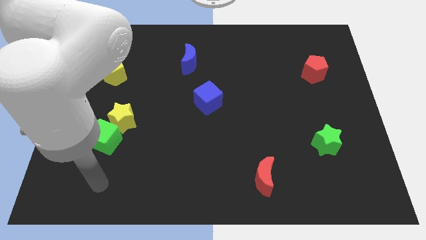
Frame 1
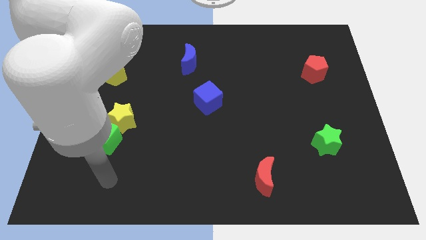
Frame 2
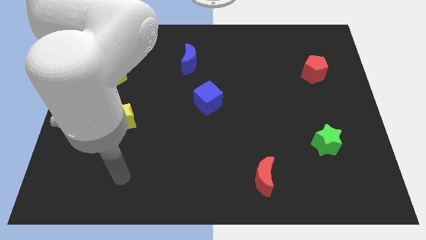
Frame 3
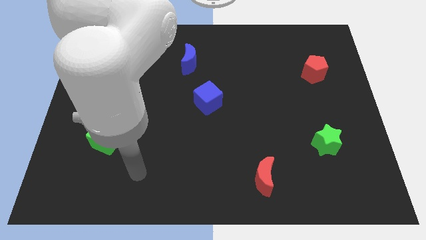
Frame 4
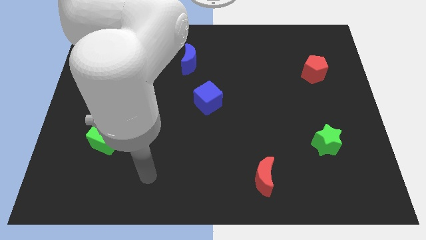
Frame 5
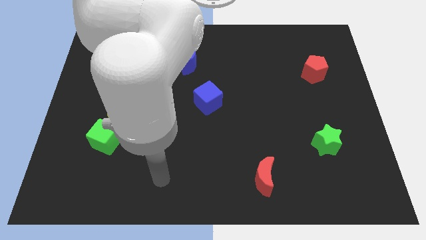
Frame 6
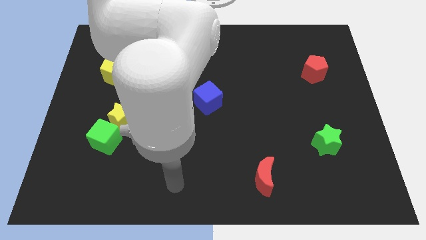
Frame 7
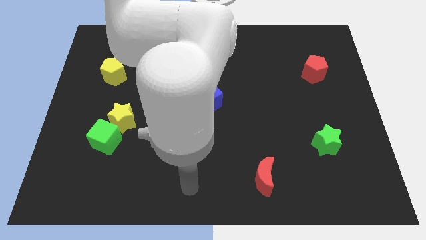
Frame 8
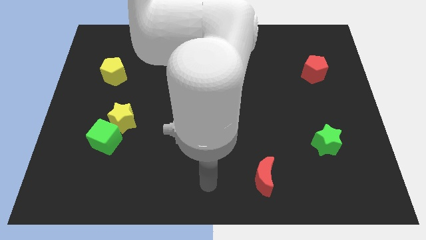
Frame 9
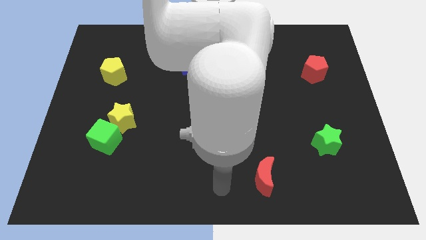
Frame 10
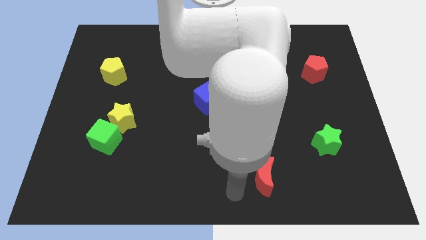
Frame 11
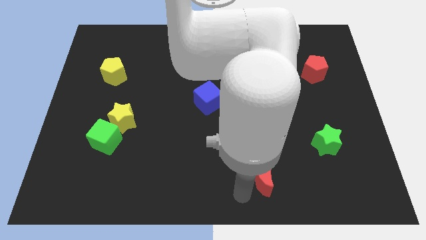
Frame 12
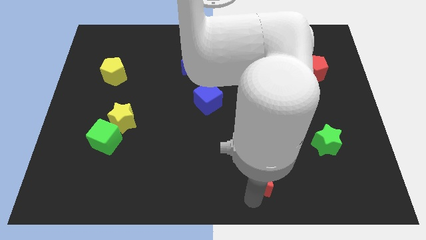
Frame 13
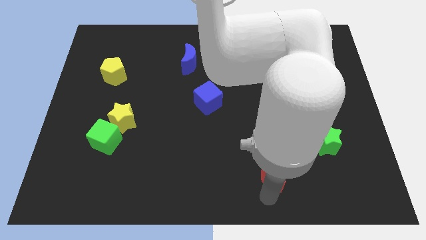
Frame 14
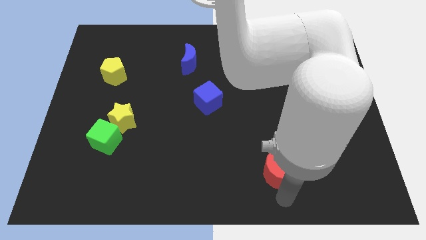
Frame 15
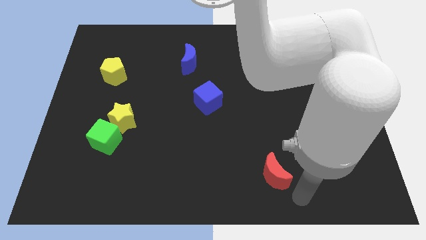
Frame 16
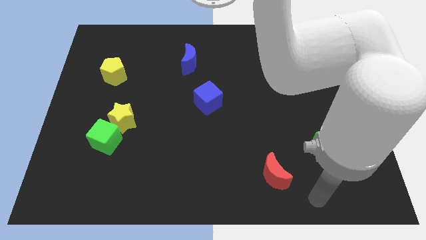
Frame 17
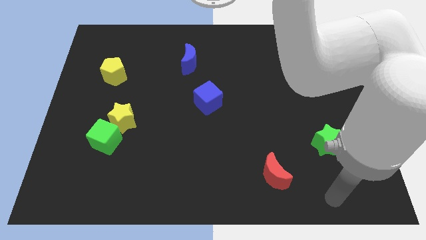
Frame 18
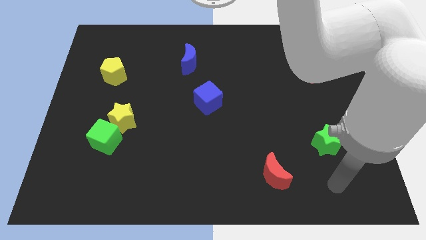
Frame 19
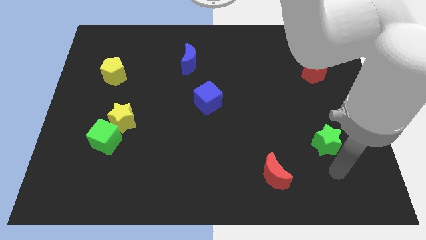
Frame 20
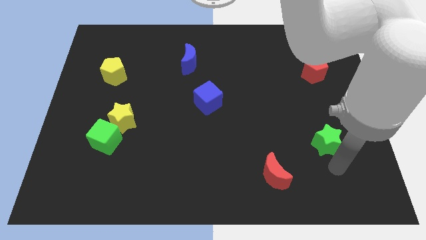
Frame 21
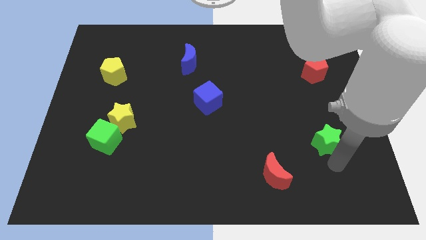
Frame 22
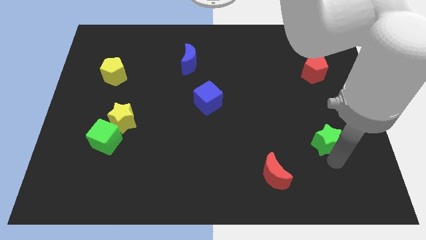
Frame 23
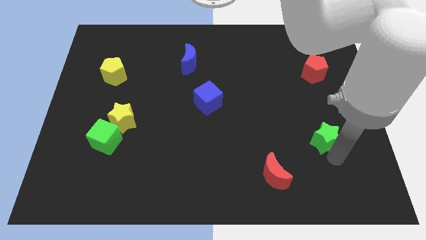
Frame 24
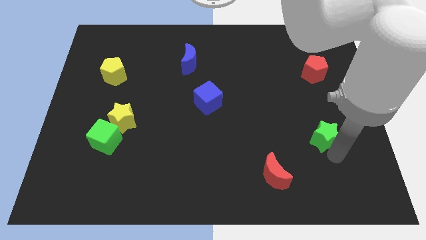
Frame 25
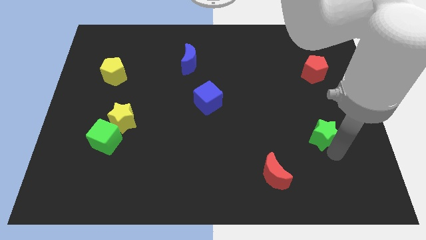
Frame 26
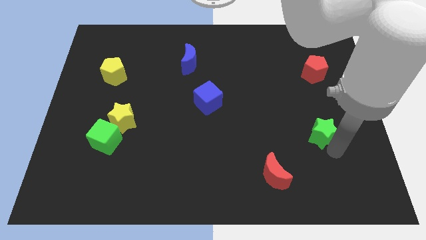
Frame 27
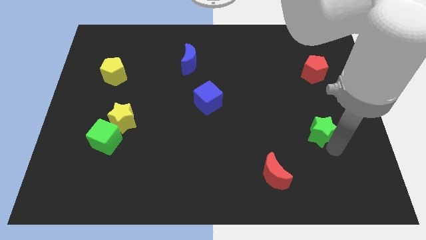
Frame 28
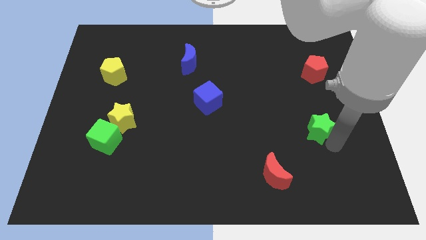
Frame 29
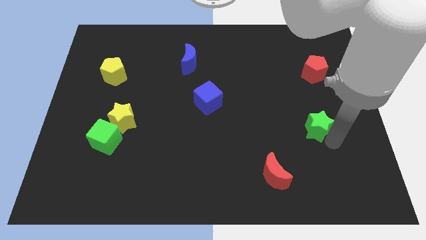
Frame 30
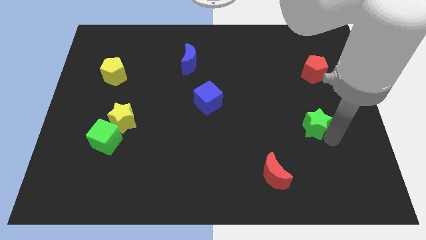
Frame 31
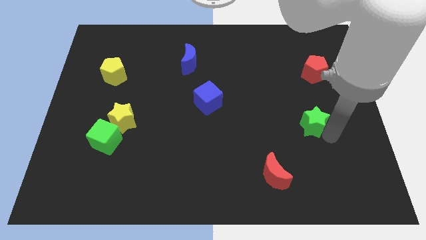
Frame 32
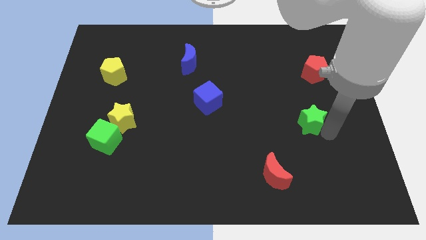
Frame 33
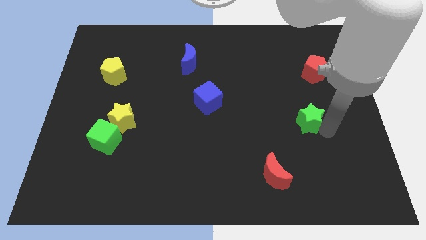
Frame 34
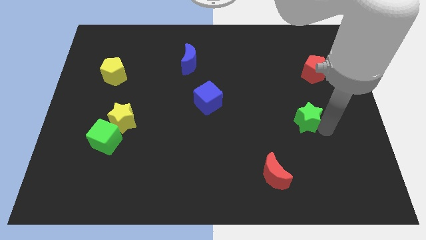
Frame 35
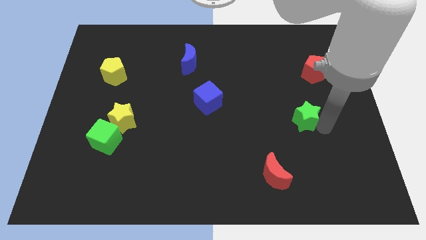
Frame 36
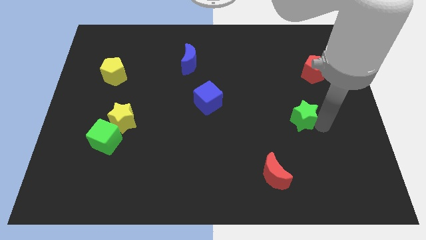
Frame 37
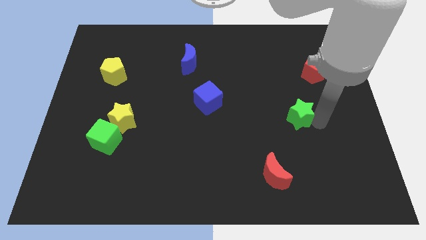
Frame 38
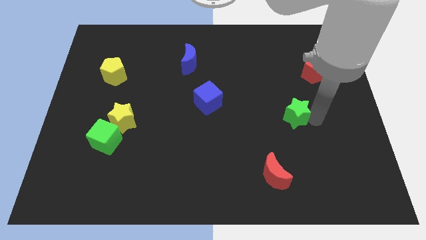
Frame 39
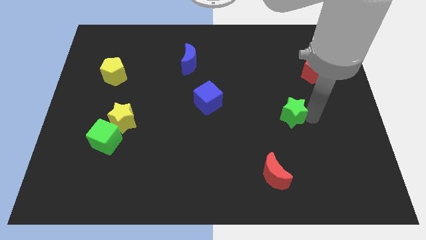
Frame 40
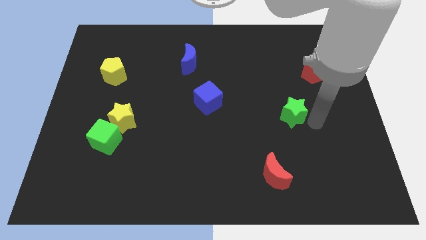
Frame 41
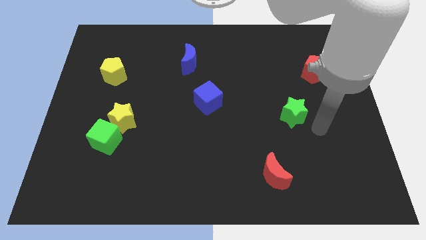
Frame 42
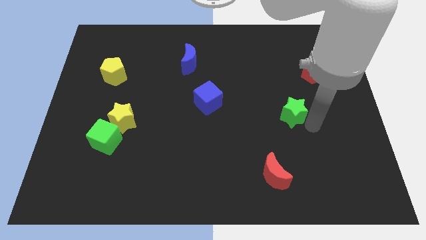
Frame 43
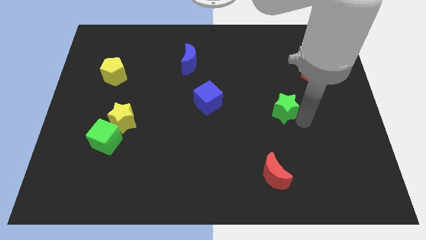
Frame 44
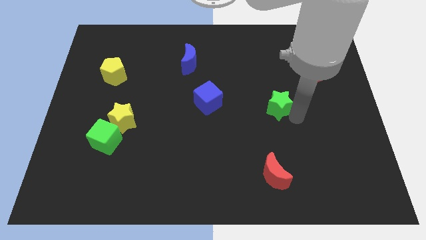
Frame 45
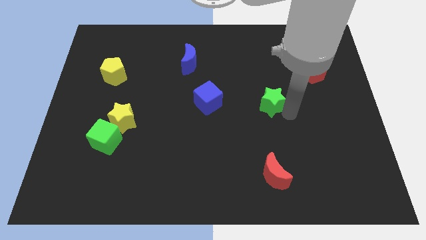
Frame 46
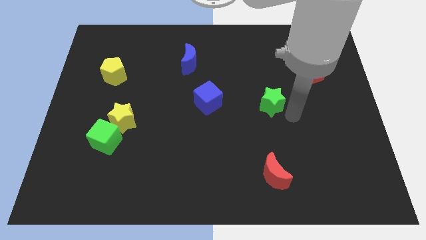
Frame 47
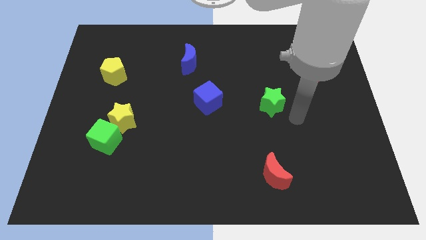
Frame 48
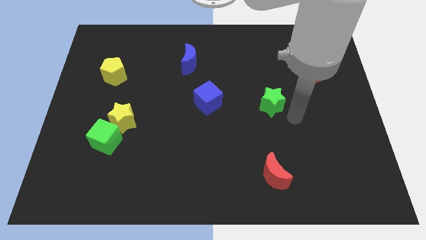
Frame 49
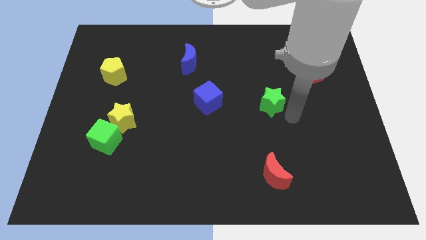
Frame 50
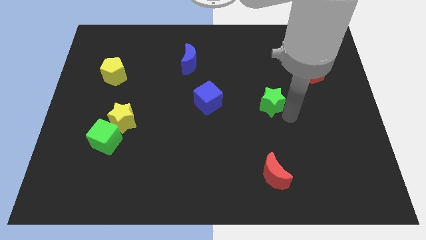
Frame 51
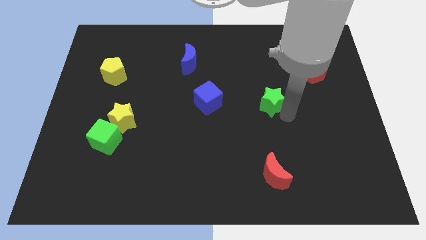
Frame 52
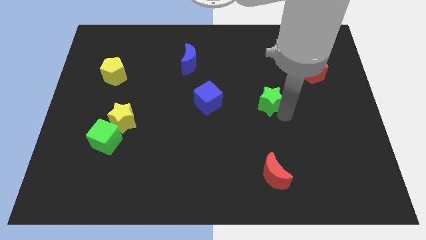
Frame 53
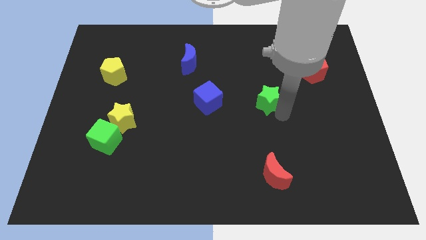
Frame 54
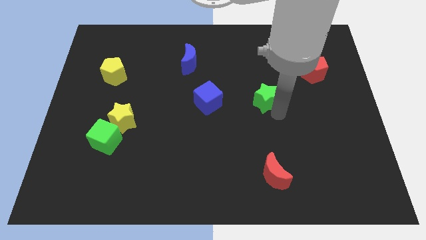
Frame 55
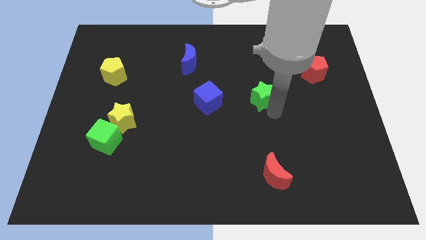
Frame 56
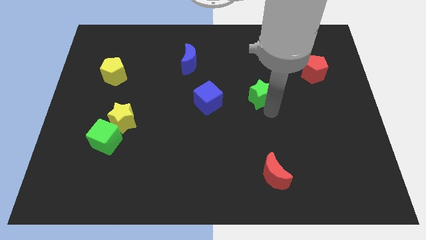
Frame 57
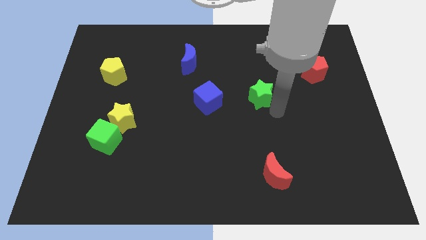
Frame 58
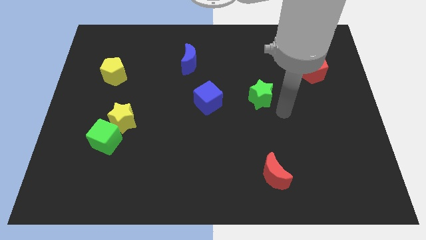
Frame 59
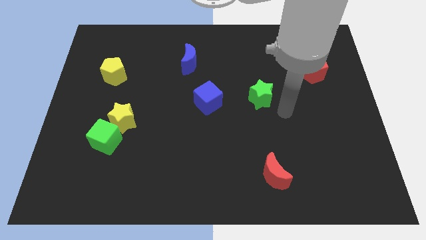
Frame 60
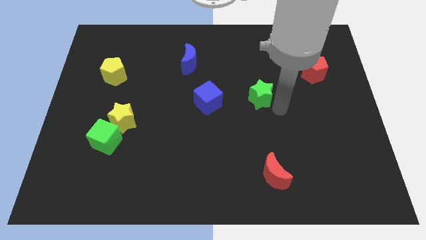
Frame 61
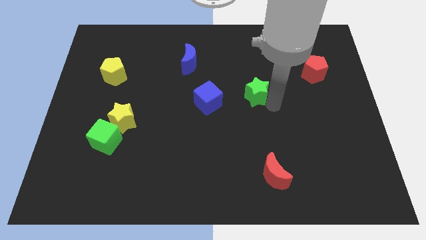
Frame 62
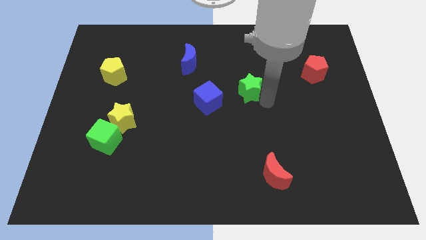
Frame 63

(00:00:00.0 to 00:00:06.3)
push the green star diagonally up and to the left

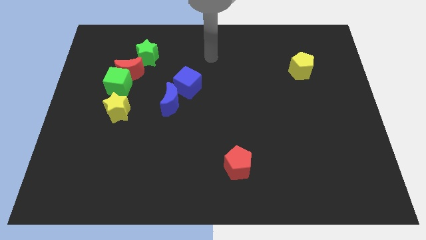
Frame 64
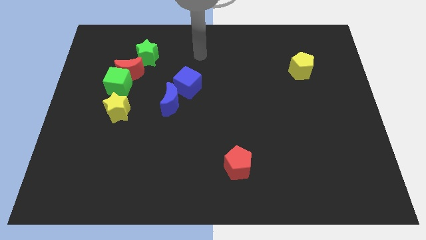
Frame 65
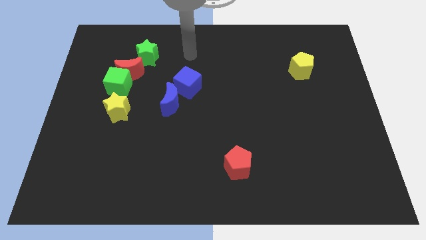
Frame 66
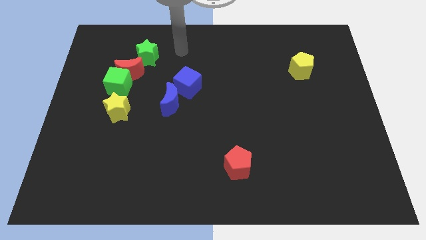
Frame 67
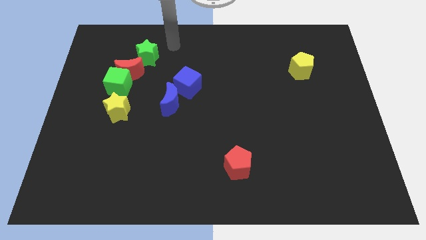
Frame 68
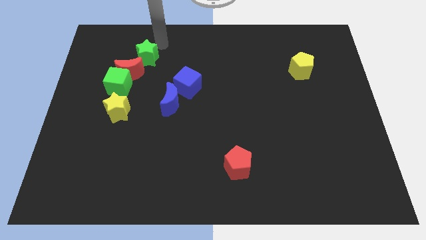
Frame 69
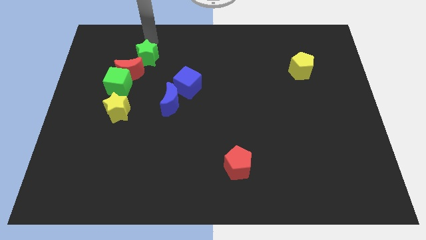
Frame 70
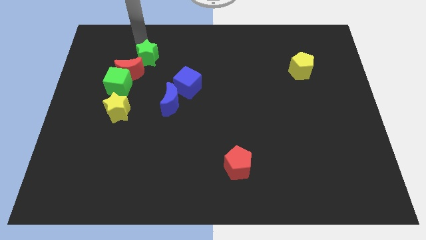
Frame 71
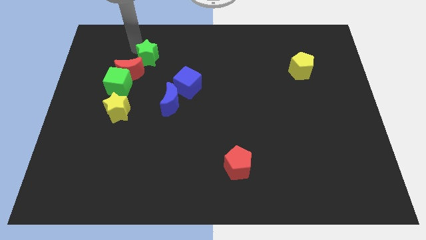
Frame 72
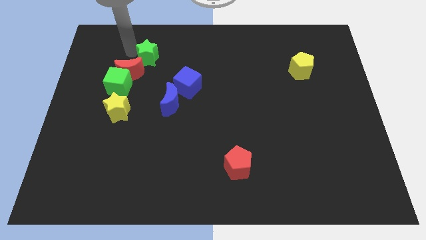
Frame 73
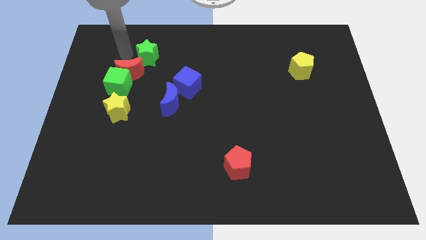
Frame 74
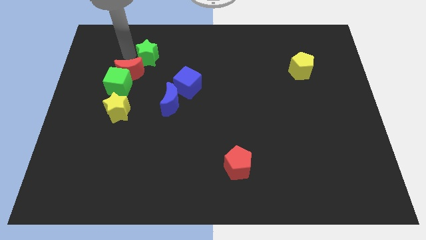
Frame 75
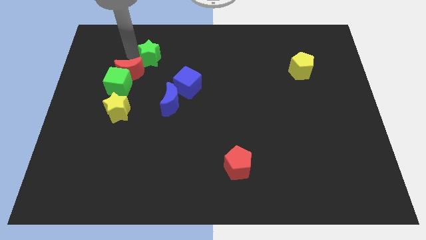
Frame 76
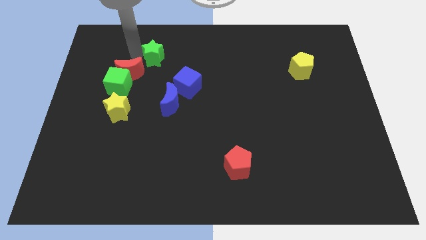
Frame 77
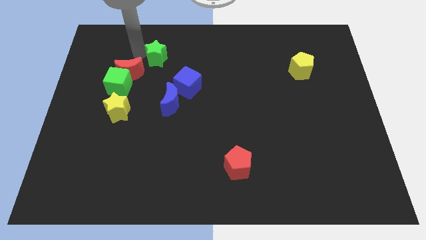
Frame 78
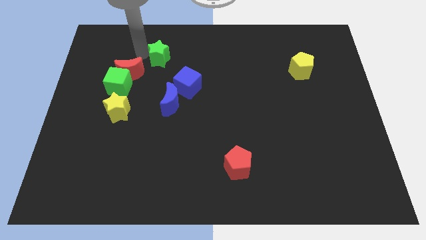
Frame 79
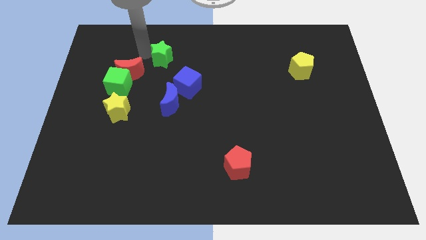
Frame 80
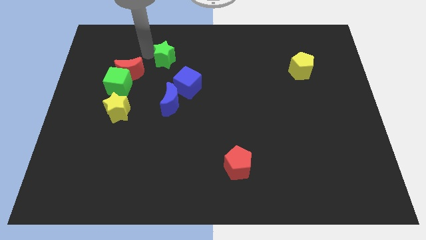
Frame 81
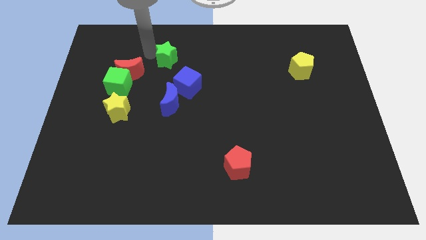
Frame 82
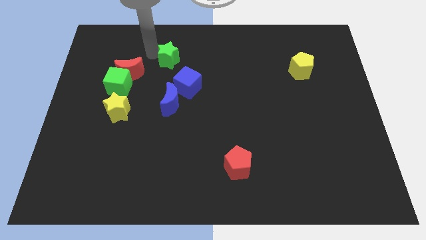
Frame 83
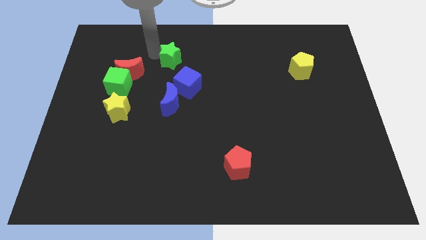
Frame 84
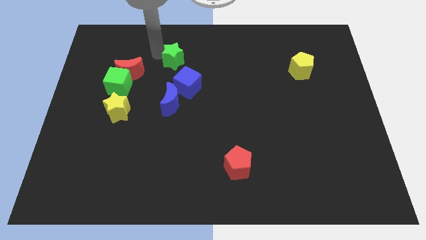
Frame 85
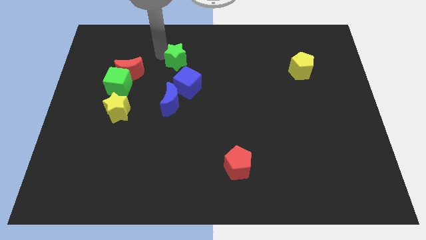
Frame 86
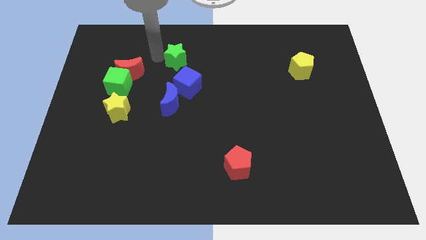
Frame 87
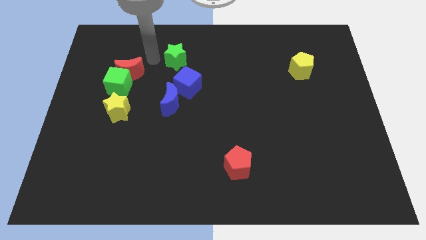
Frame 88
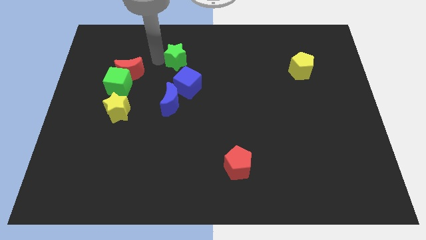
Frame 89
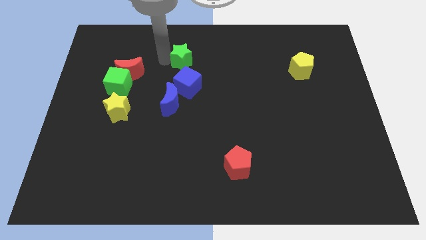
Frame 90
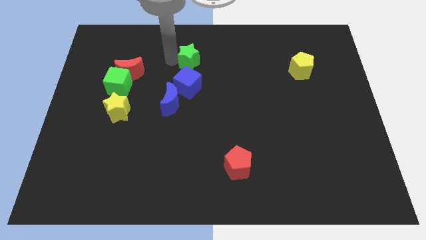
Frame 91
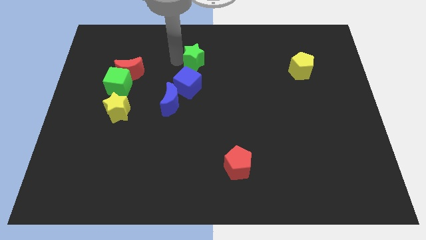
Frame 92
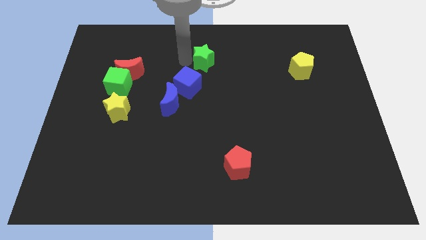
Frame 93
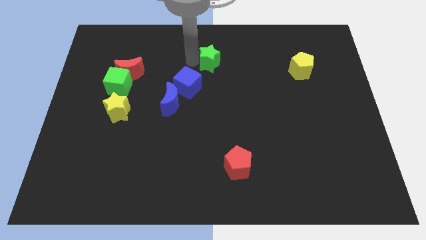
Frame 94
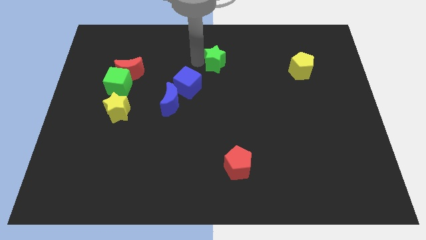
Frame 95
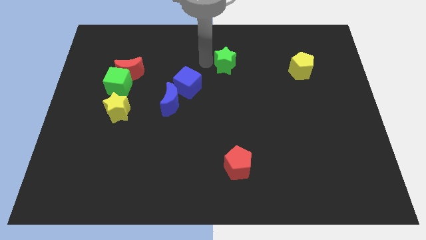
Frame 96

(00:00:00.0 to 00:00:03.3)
push the green star right
